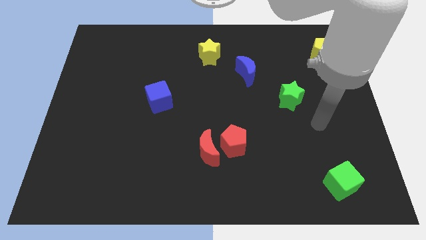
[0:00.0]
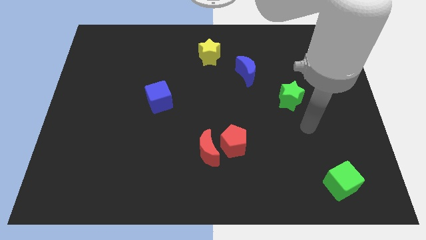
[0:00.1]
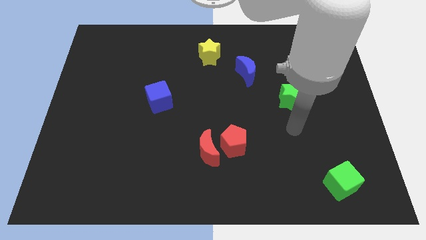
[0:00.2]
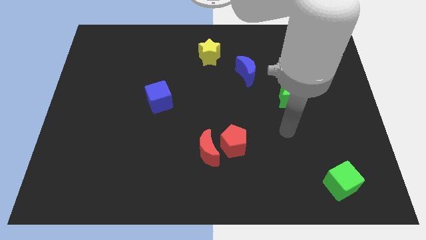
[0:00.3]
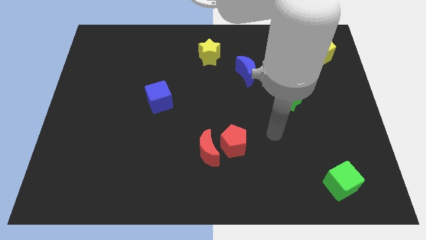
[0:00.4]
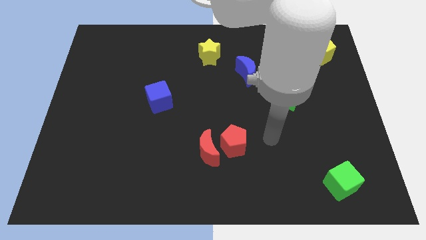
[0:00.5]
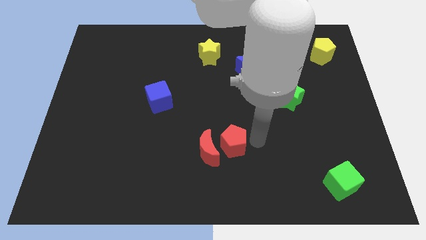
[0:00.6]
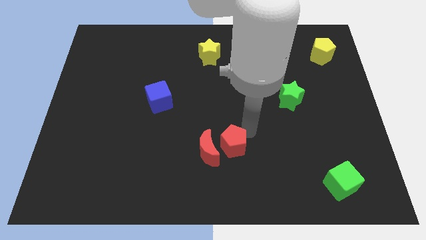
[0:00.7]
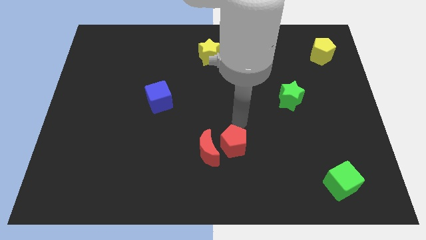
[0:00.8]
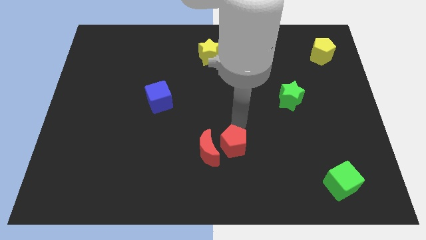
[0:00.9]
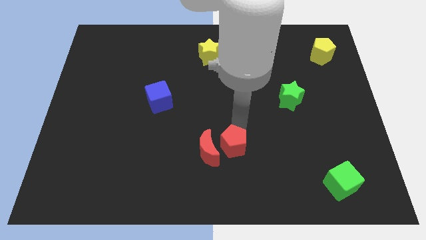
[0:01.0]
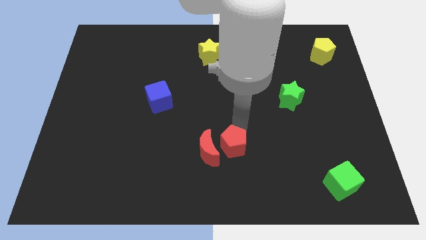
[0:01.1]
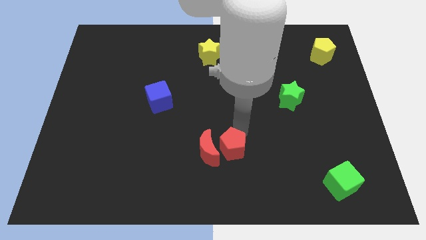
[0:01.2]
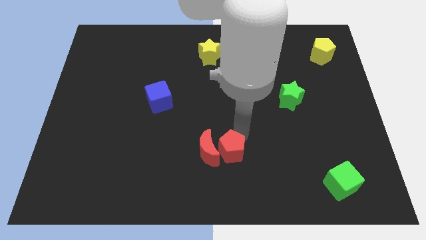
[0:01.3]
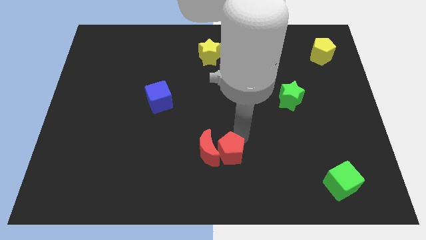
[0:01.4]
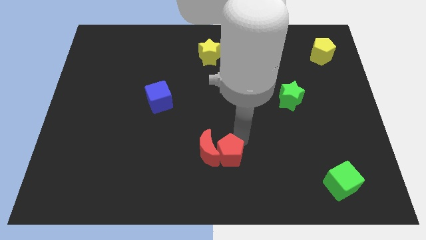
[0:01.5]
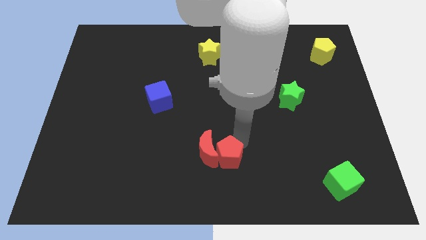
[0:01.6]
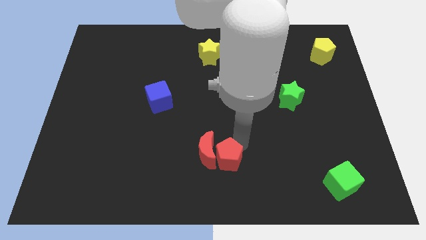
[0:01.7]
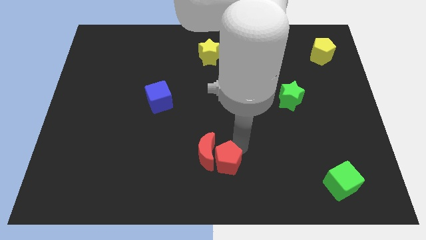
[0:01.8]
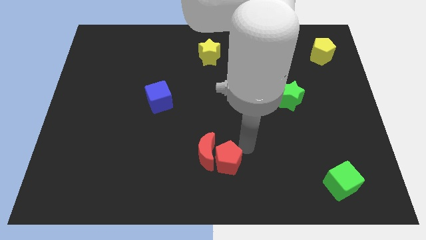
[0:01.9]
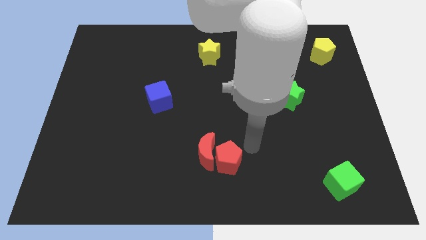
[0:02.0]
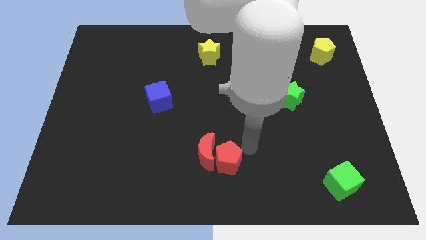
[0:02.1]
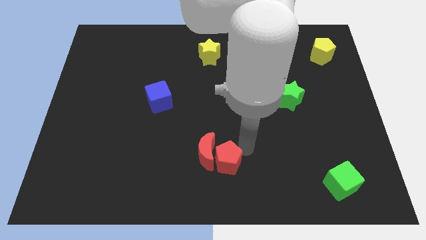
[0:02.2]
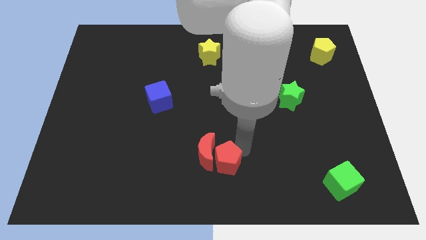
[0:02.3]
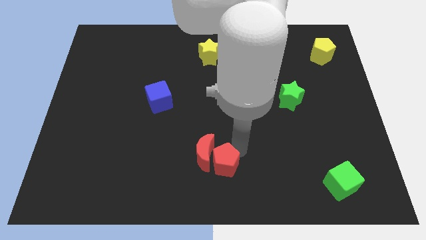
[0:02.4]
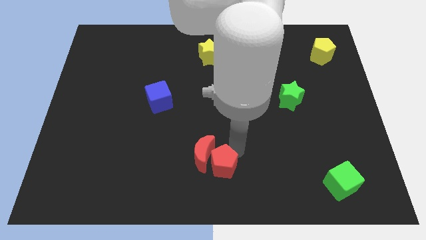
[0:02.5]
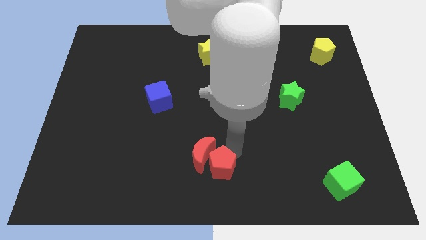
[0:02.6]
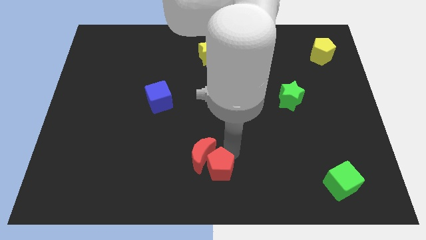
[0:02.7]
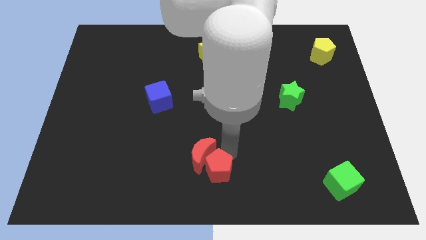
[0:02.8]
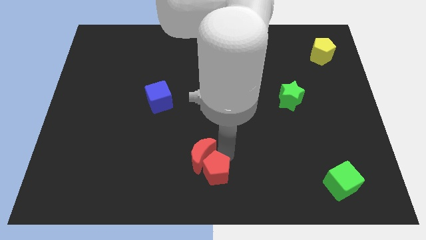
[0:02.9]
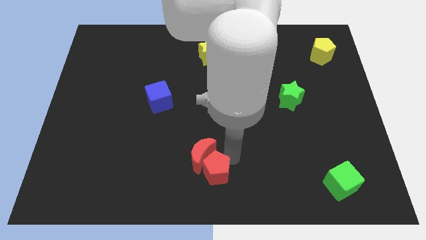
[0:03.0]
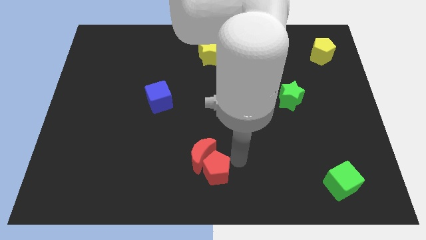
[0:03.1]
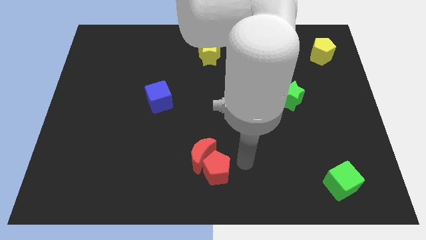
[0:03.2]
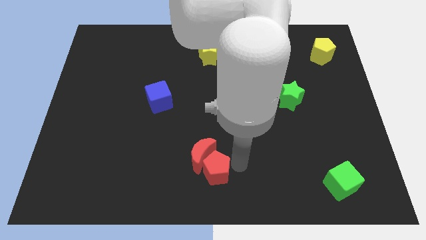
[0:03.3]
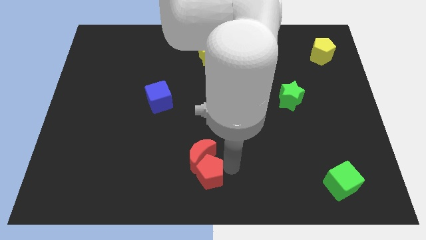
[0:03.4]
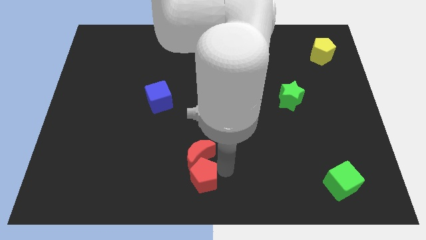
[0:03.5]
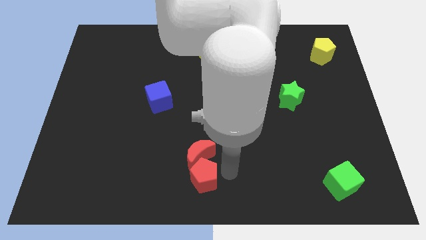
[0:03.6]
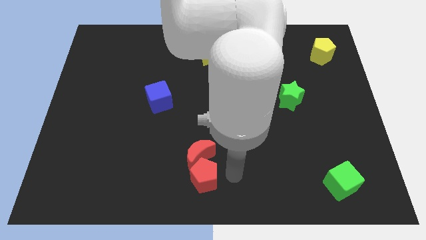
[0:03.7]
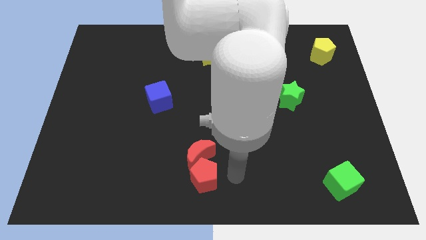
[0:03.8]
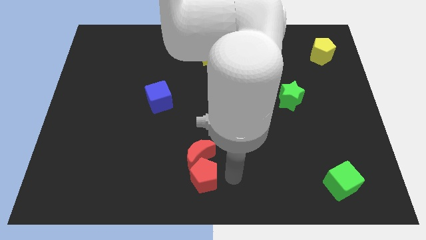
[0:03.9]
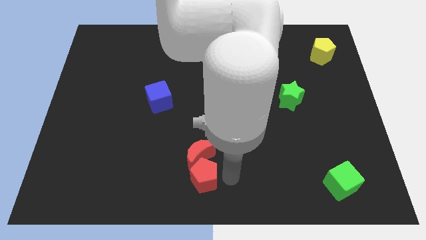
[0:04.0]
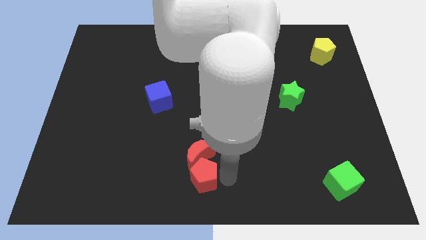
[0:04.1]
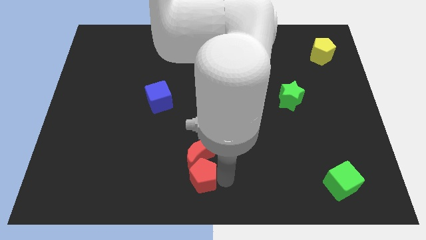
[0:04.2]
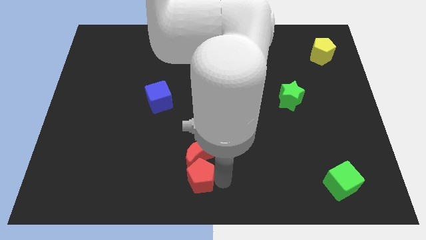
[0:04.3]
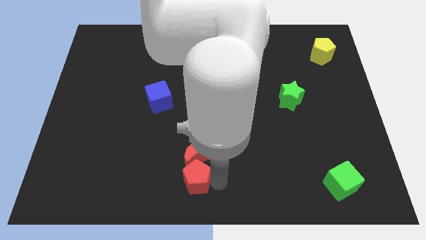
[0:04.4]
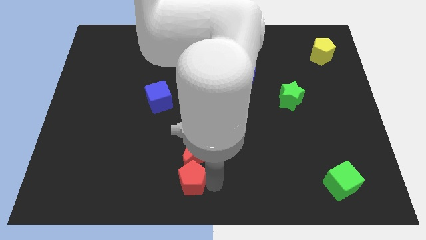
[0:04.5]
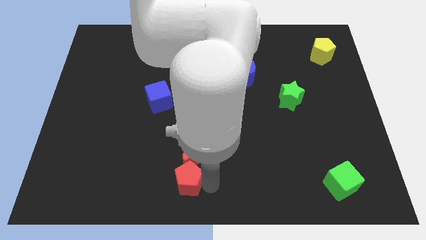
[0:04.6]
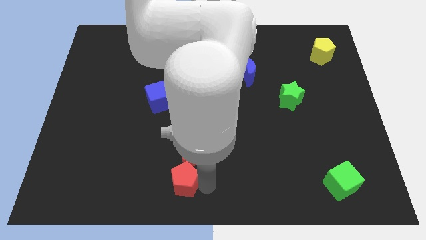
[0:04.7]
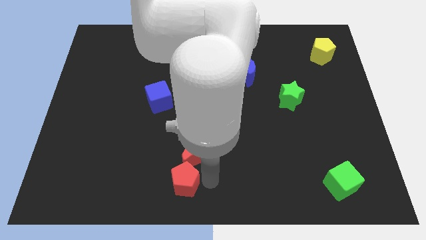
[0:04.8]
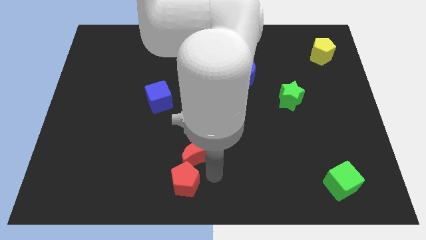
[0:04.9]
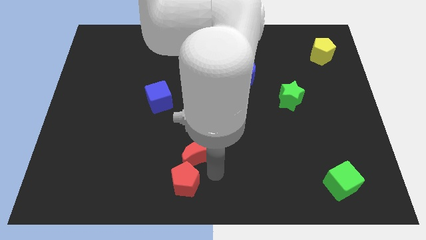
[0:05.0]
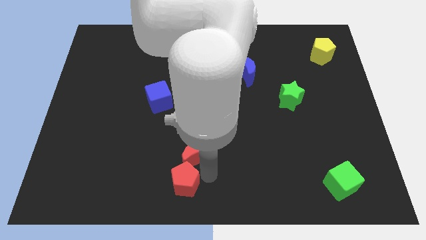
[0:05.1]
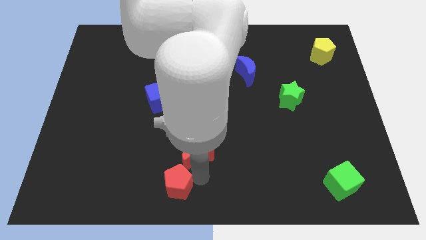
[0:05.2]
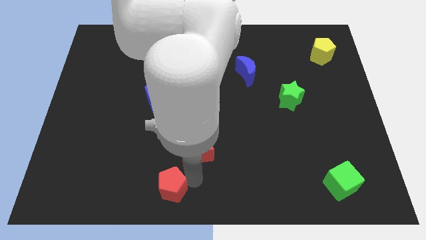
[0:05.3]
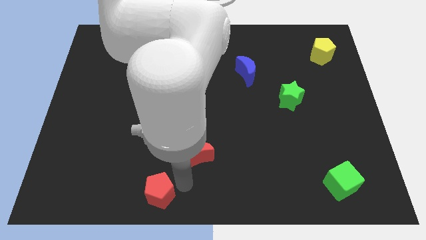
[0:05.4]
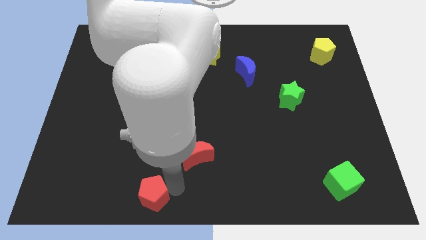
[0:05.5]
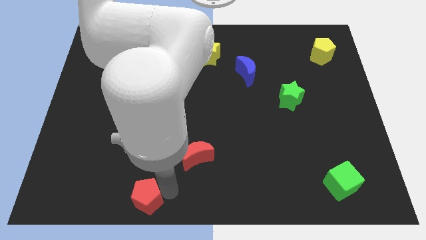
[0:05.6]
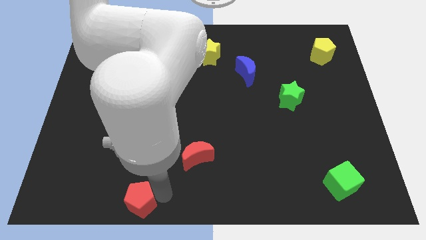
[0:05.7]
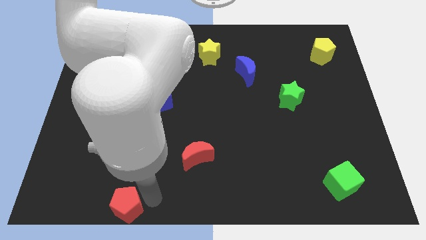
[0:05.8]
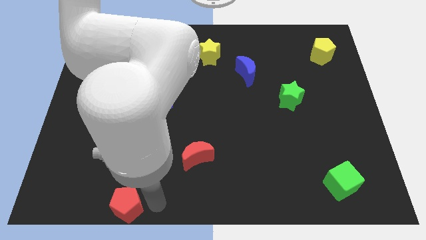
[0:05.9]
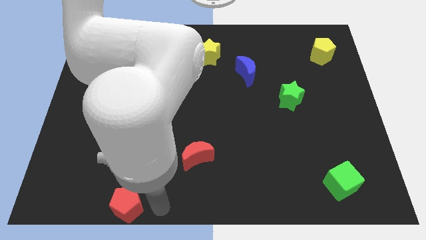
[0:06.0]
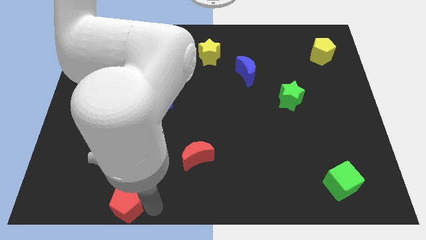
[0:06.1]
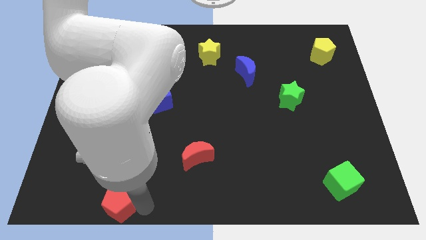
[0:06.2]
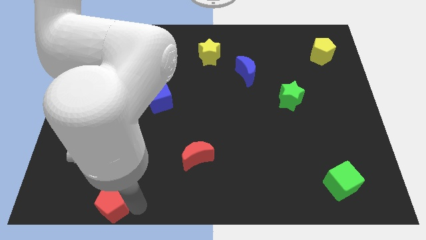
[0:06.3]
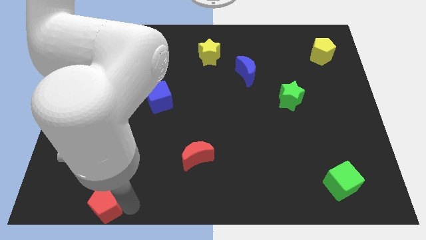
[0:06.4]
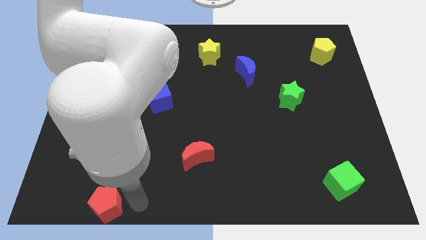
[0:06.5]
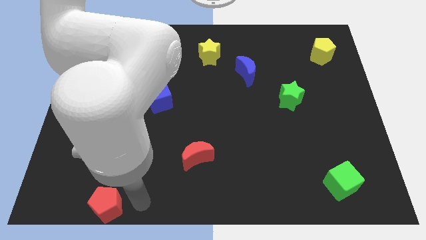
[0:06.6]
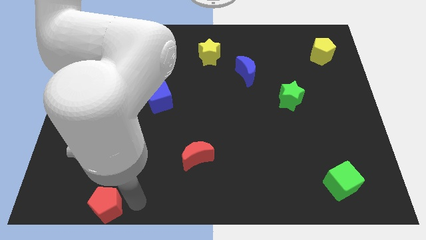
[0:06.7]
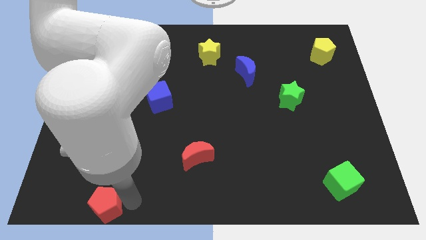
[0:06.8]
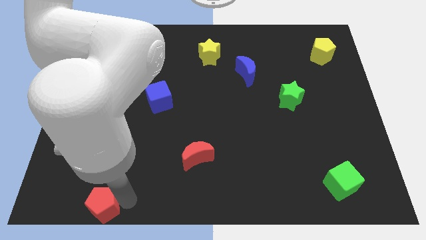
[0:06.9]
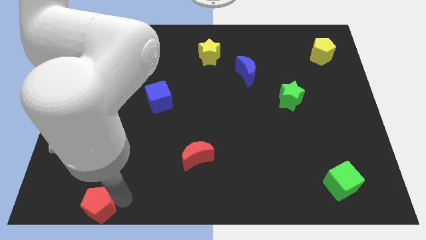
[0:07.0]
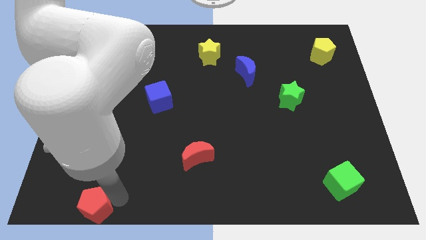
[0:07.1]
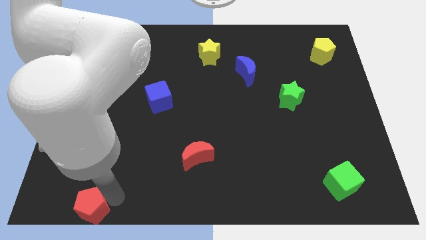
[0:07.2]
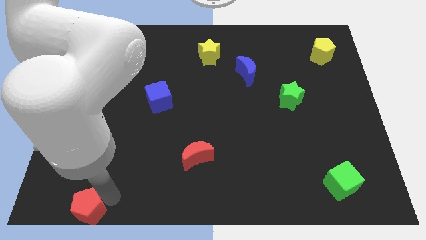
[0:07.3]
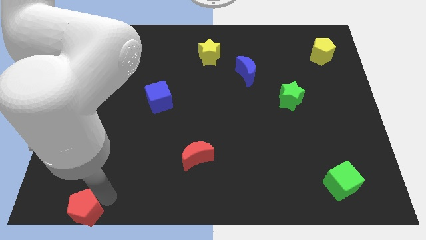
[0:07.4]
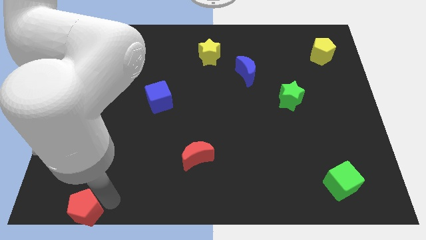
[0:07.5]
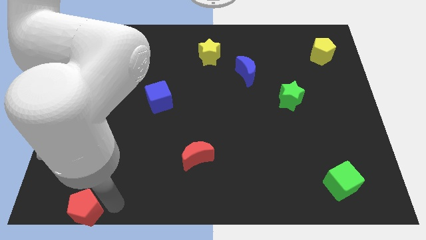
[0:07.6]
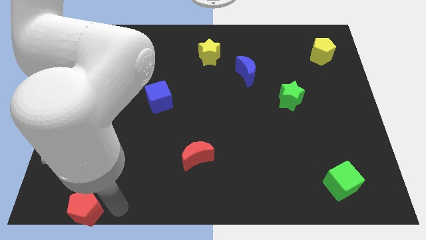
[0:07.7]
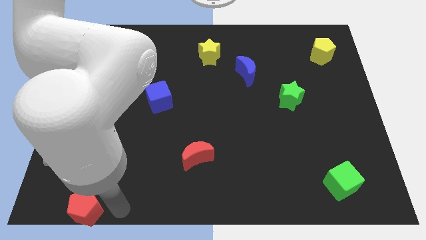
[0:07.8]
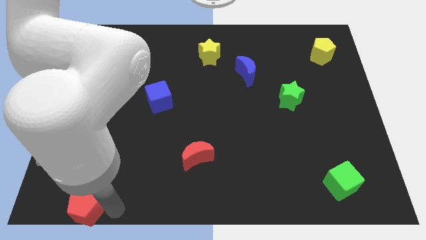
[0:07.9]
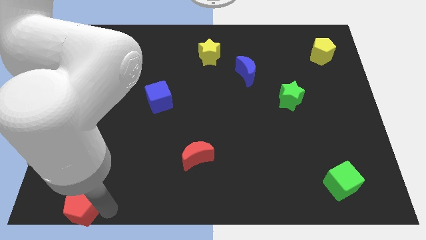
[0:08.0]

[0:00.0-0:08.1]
put the red pentagon to the lower left corner
